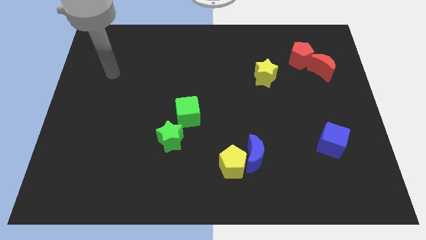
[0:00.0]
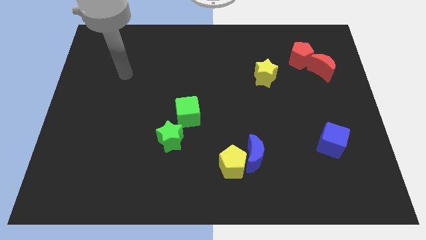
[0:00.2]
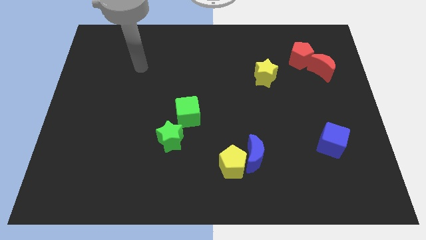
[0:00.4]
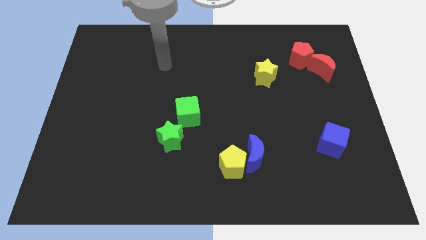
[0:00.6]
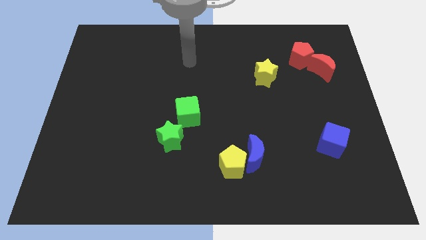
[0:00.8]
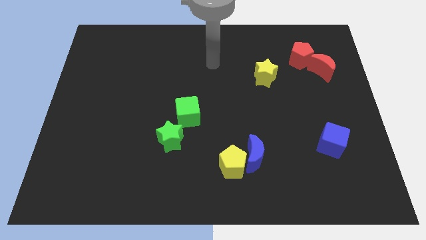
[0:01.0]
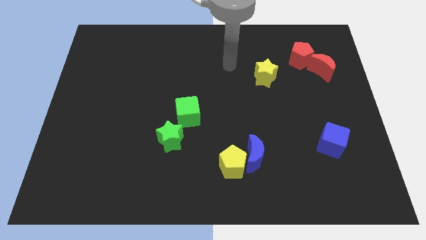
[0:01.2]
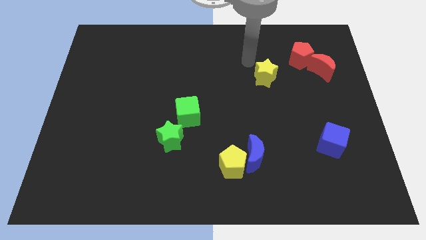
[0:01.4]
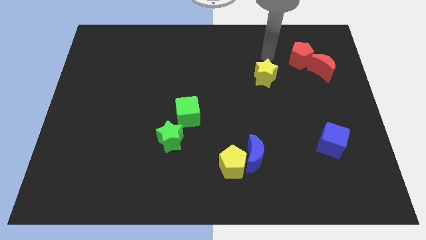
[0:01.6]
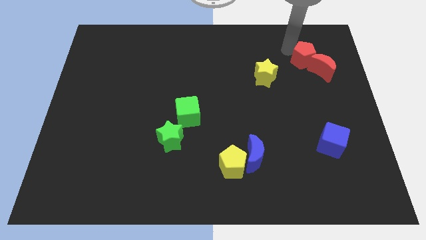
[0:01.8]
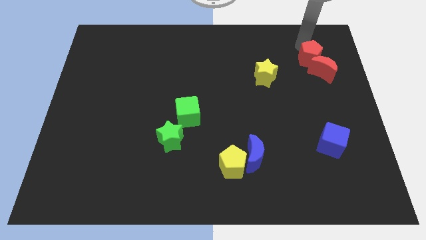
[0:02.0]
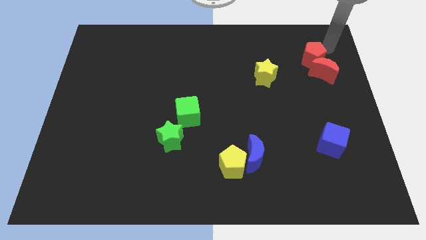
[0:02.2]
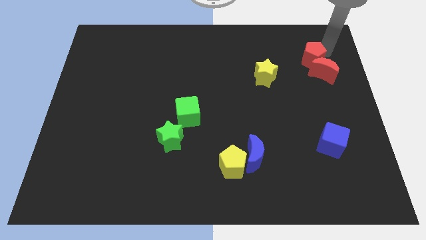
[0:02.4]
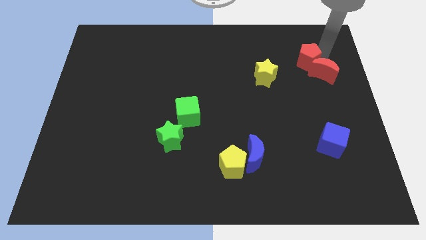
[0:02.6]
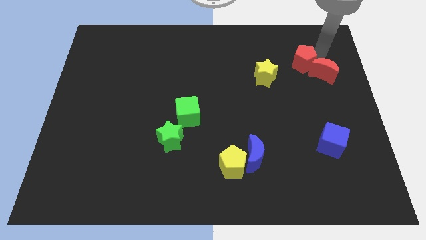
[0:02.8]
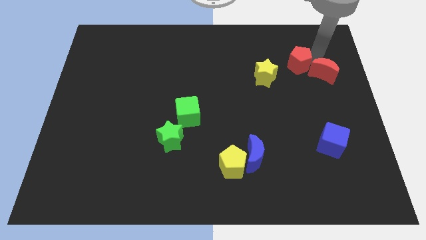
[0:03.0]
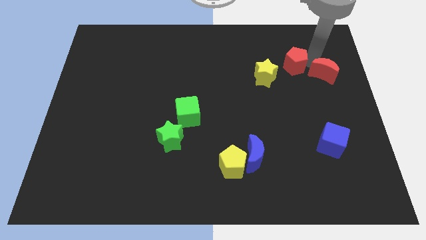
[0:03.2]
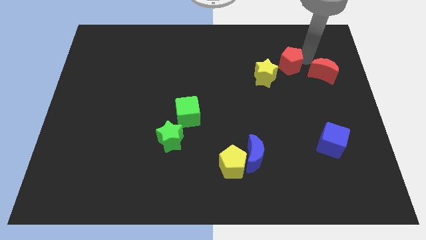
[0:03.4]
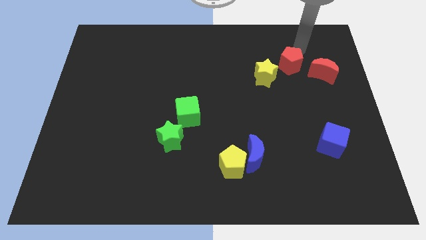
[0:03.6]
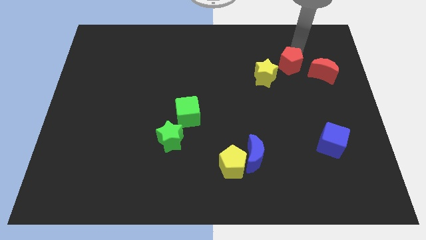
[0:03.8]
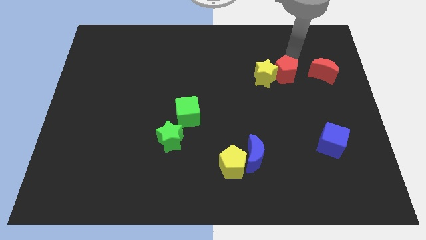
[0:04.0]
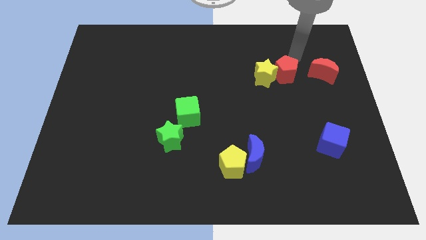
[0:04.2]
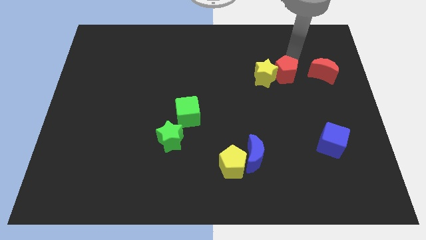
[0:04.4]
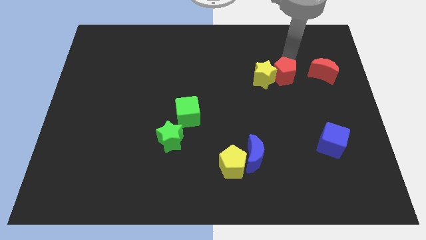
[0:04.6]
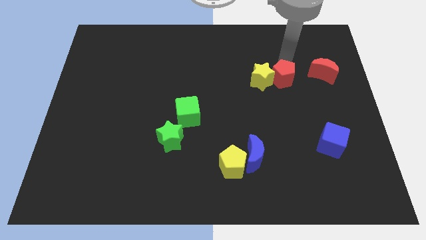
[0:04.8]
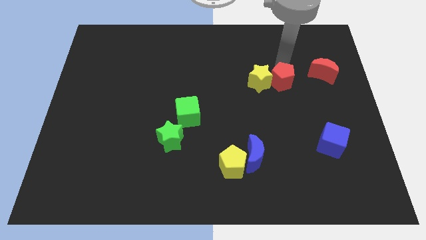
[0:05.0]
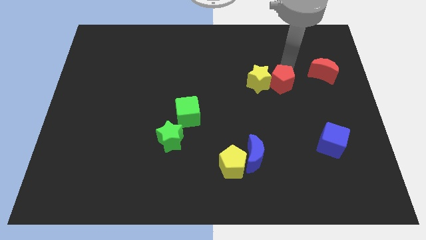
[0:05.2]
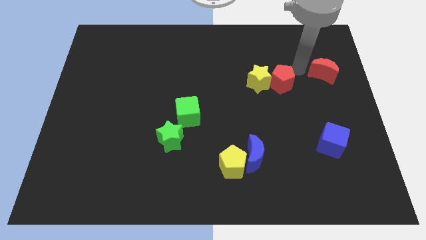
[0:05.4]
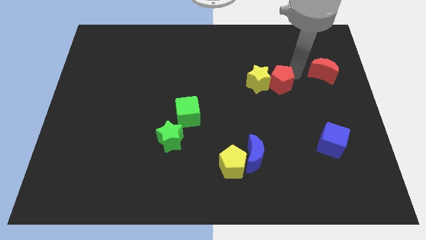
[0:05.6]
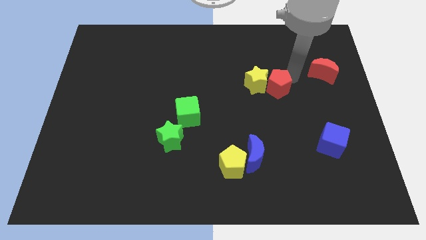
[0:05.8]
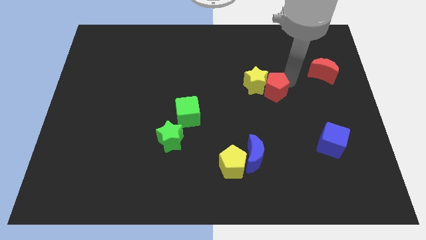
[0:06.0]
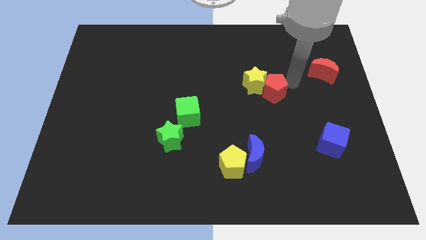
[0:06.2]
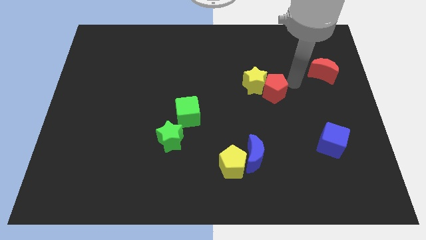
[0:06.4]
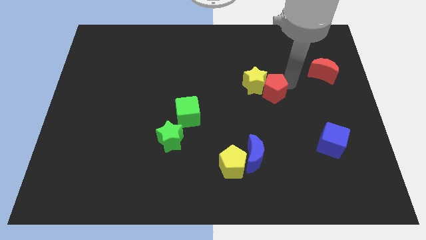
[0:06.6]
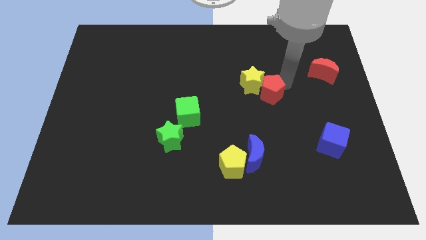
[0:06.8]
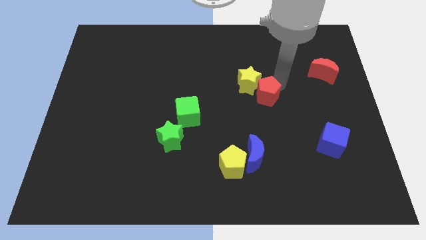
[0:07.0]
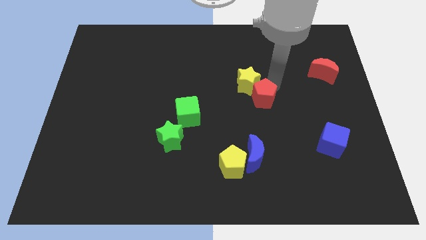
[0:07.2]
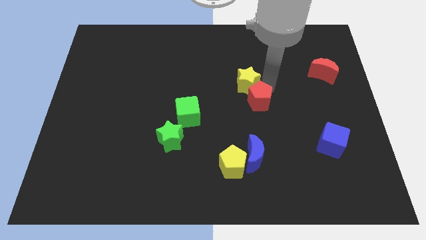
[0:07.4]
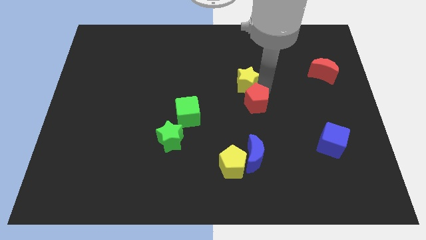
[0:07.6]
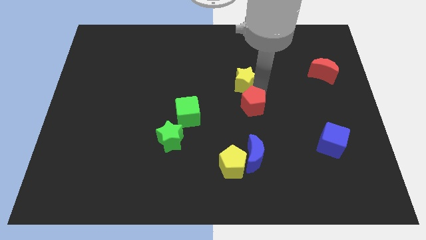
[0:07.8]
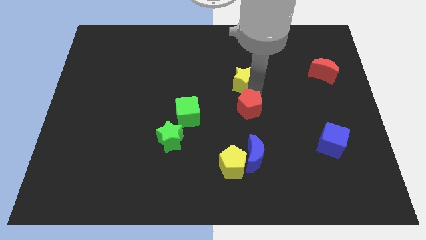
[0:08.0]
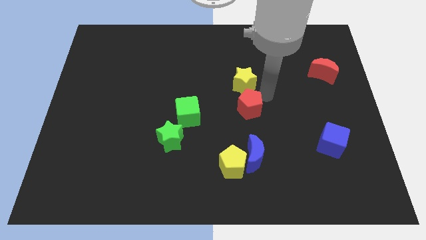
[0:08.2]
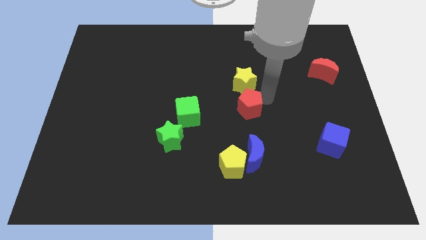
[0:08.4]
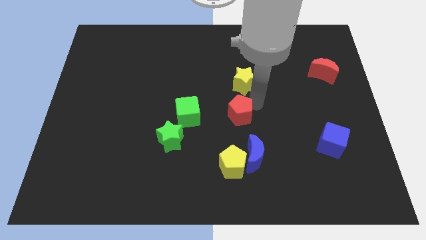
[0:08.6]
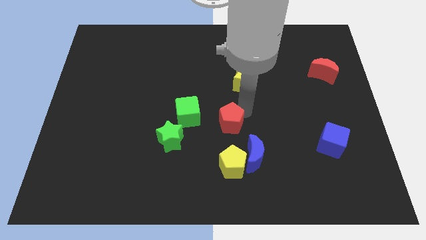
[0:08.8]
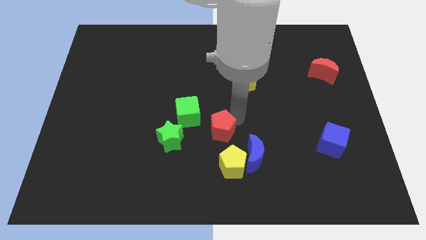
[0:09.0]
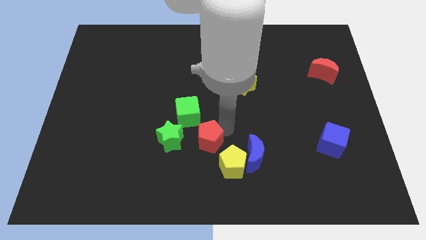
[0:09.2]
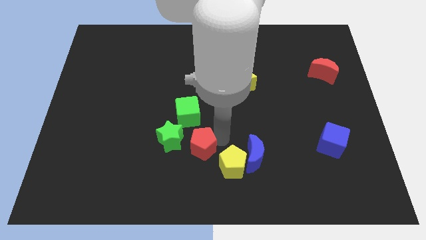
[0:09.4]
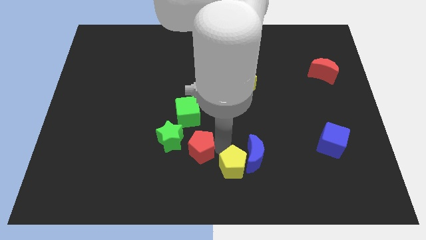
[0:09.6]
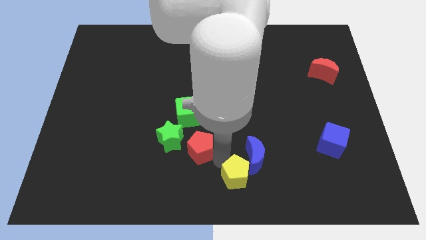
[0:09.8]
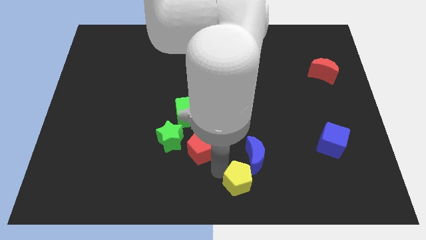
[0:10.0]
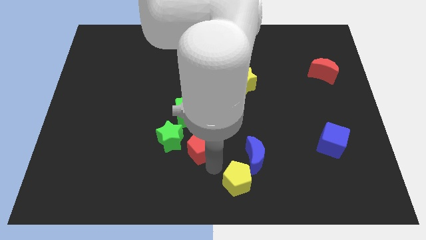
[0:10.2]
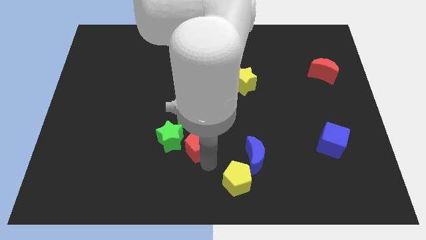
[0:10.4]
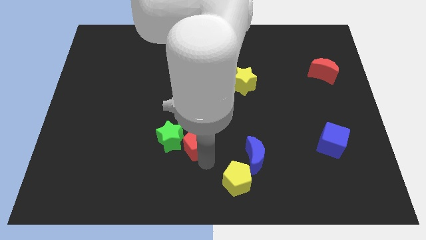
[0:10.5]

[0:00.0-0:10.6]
put the red pentagon to the green star

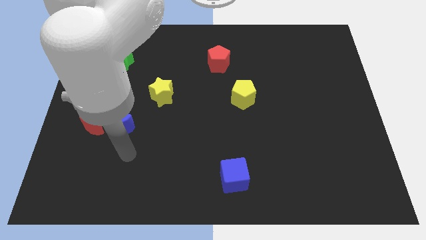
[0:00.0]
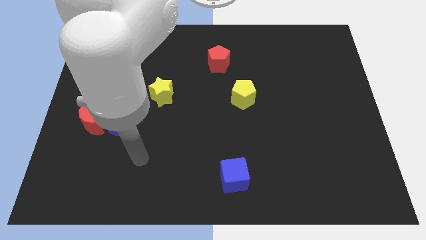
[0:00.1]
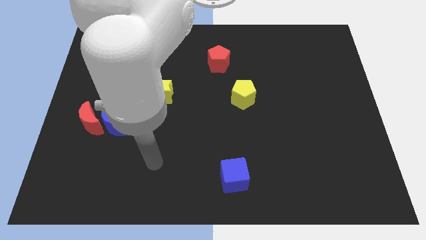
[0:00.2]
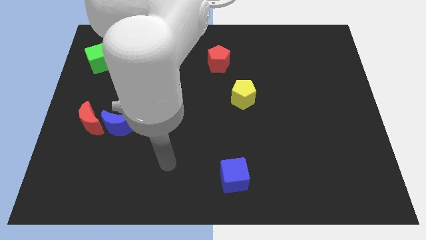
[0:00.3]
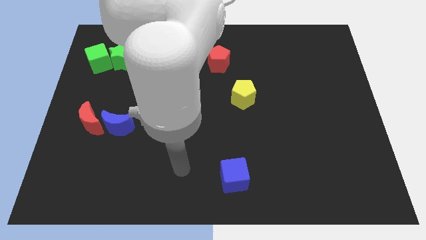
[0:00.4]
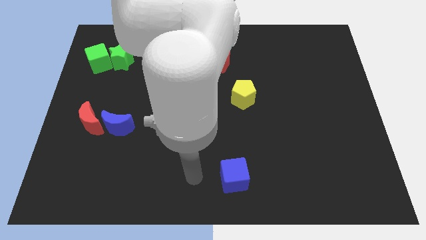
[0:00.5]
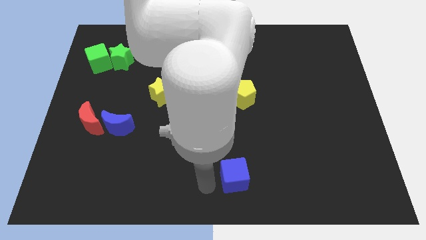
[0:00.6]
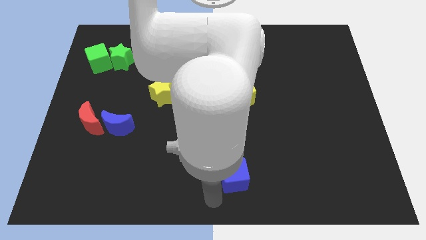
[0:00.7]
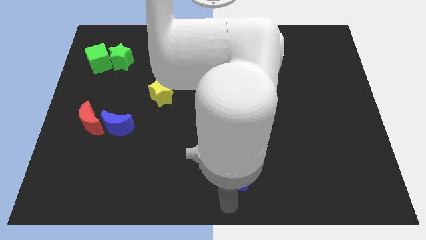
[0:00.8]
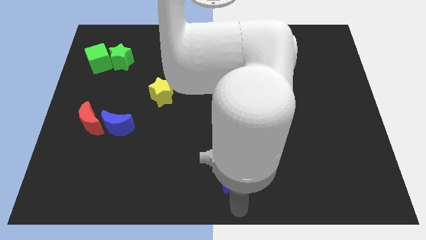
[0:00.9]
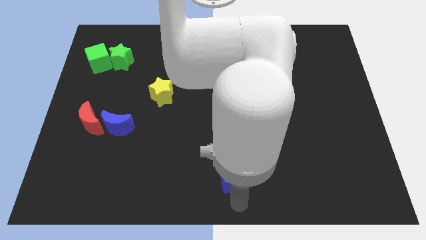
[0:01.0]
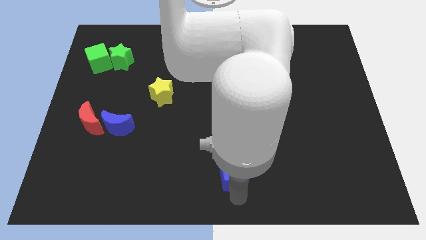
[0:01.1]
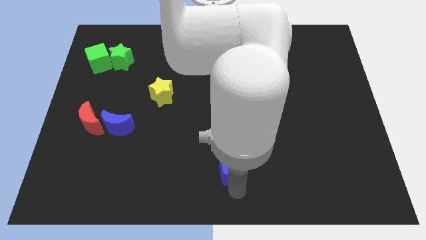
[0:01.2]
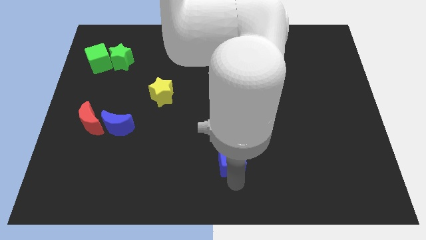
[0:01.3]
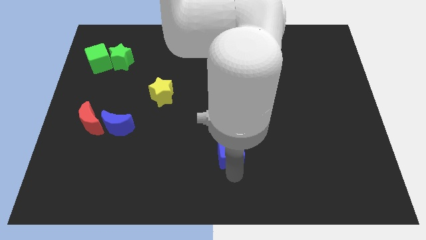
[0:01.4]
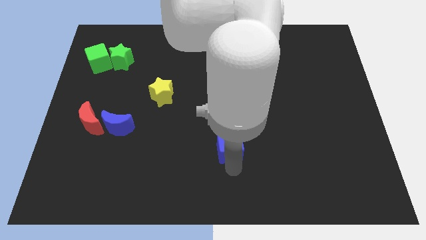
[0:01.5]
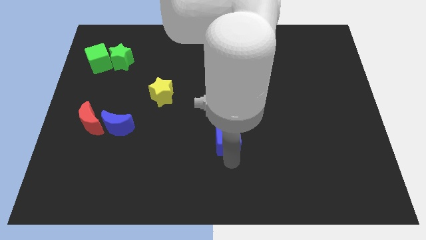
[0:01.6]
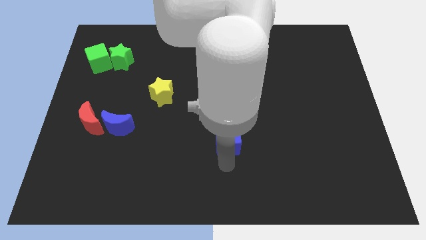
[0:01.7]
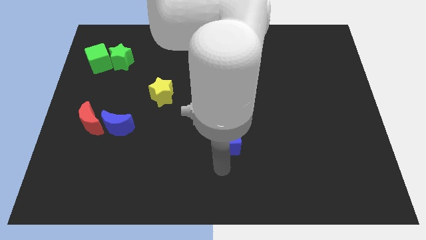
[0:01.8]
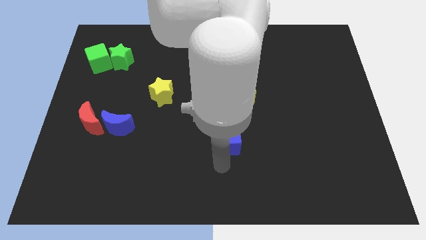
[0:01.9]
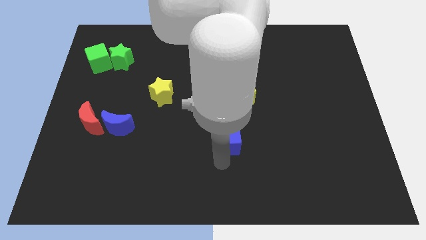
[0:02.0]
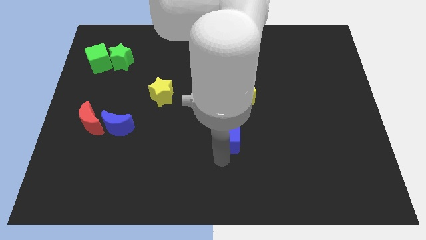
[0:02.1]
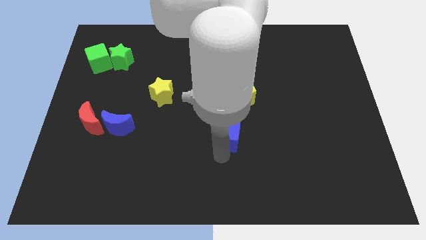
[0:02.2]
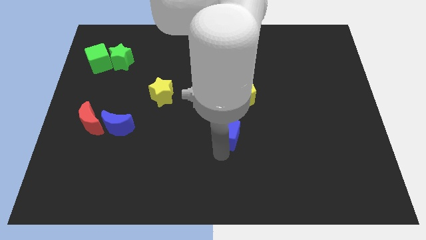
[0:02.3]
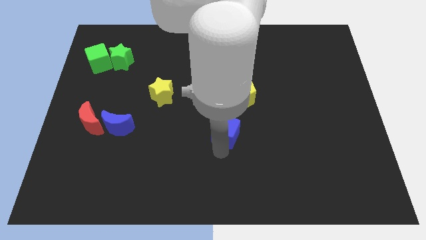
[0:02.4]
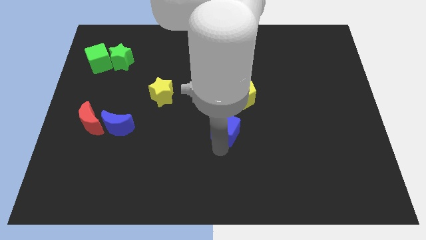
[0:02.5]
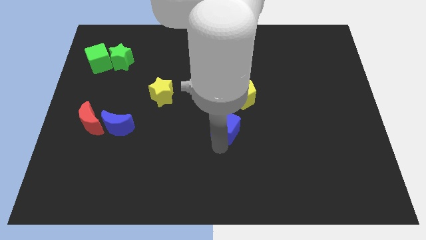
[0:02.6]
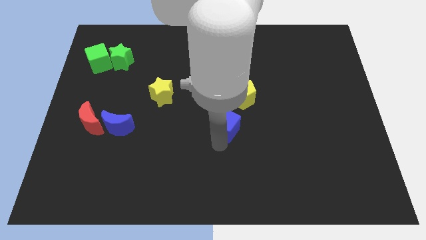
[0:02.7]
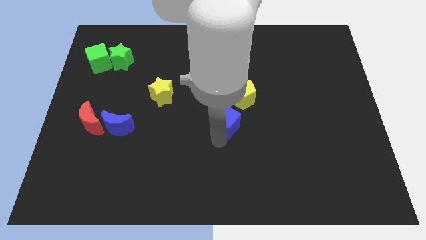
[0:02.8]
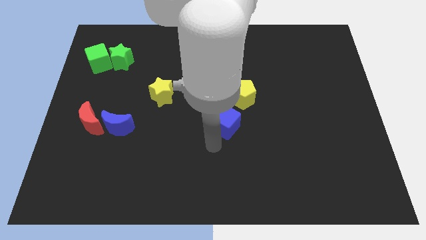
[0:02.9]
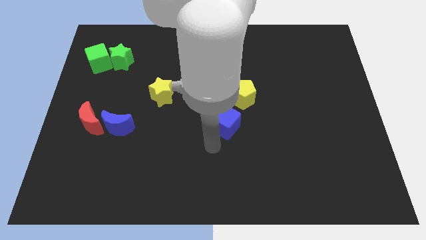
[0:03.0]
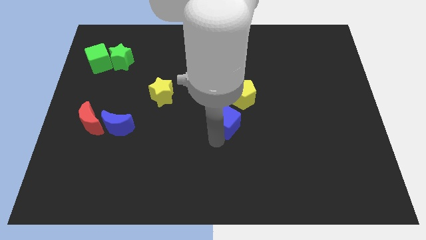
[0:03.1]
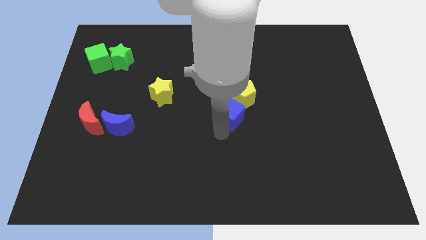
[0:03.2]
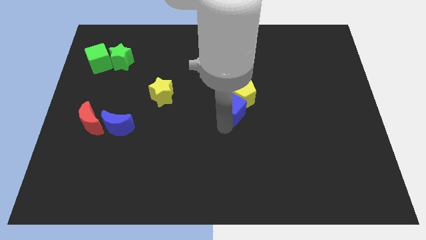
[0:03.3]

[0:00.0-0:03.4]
put the blue cube close to the yellow pentagon
